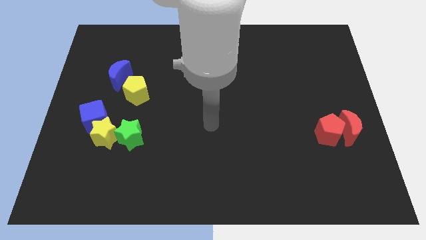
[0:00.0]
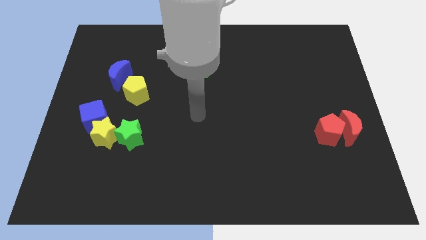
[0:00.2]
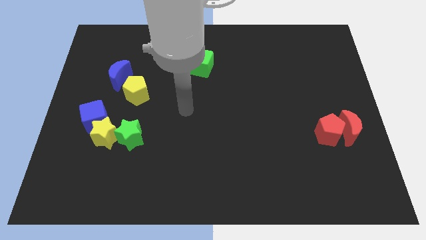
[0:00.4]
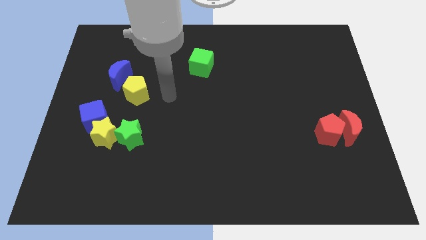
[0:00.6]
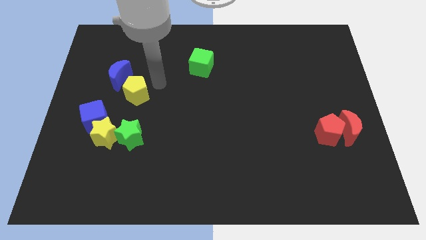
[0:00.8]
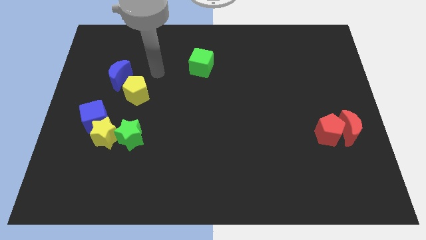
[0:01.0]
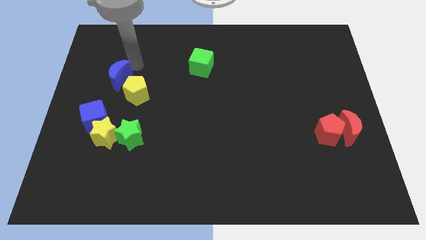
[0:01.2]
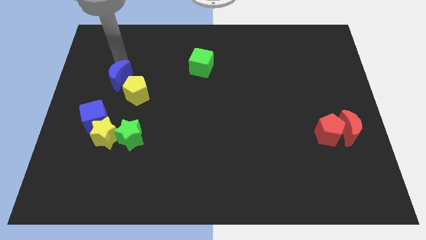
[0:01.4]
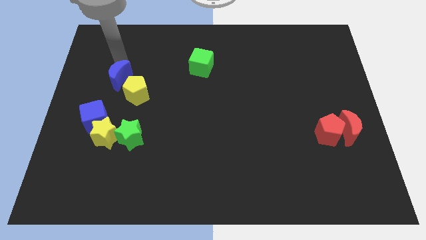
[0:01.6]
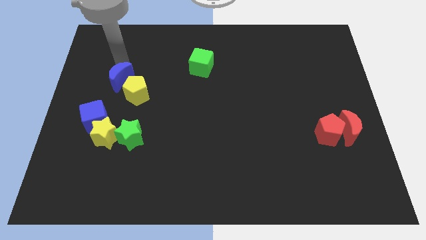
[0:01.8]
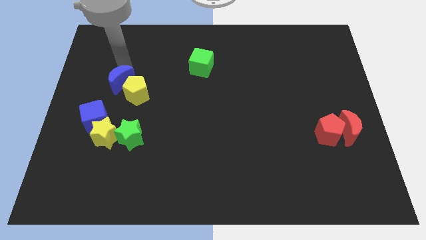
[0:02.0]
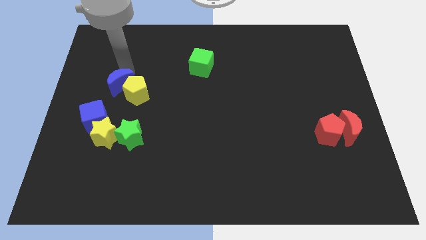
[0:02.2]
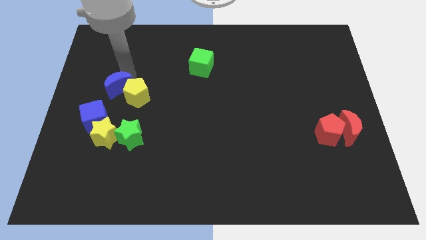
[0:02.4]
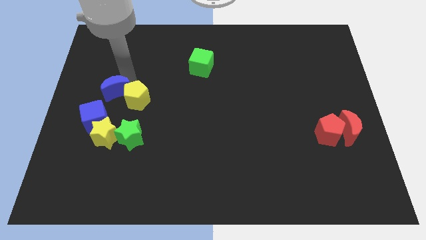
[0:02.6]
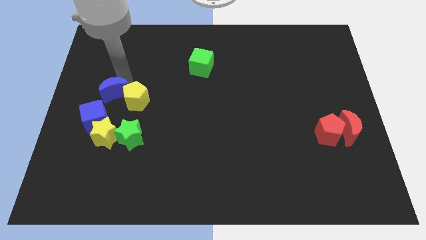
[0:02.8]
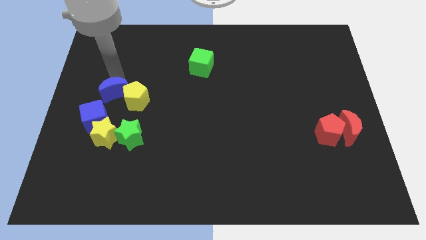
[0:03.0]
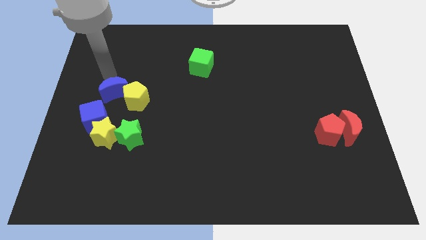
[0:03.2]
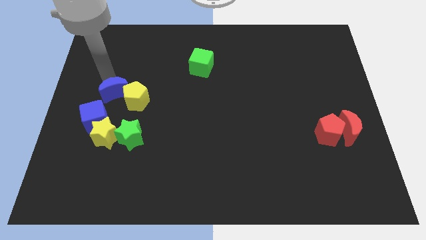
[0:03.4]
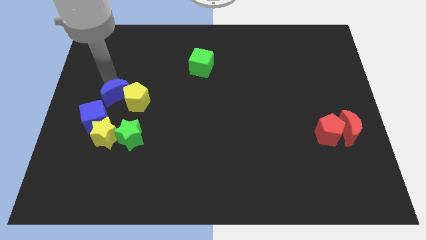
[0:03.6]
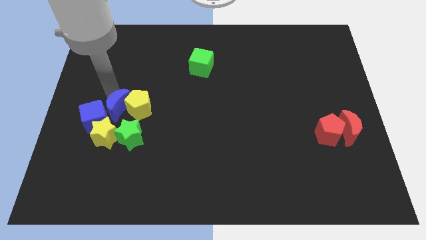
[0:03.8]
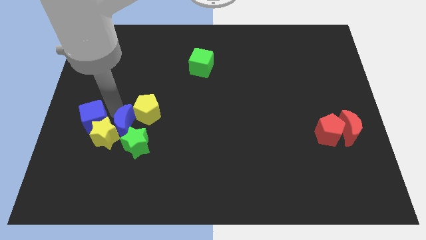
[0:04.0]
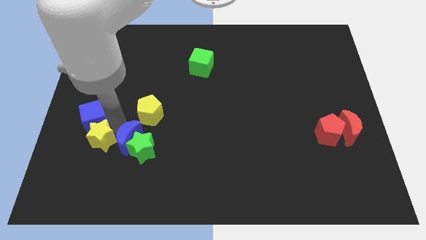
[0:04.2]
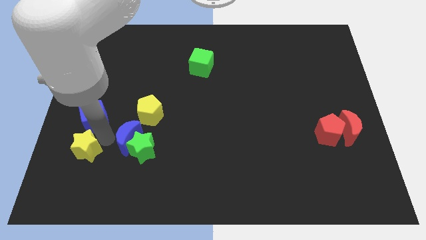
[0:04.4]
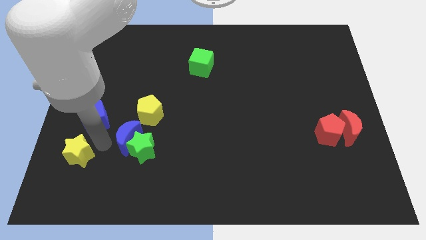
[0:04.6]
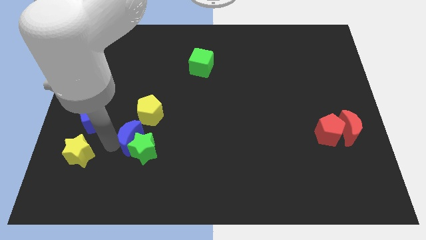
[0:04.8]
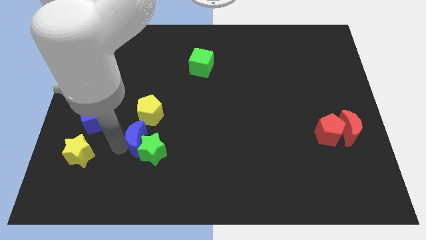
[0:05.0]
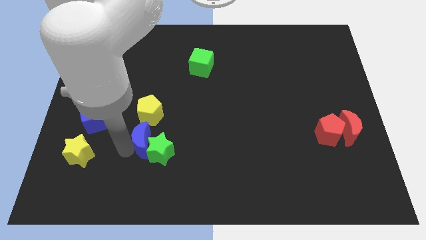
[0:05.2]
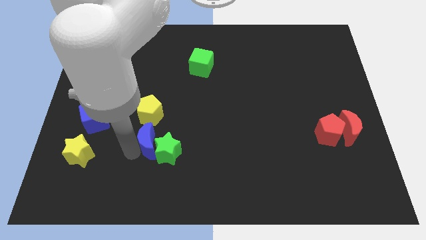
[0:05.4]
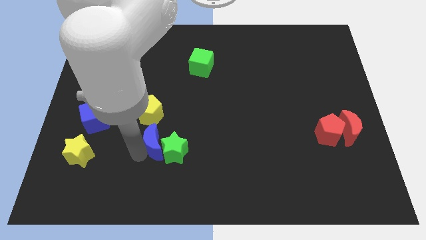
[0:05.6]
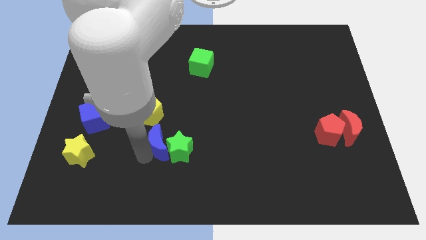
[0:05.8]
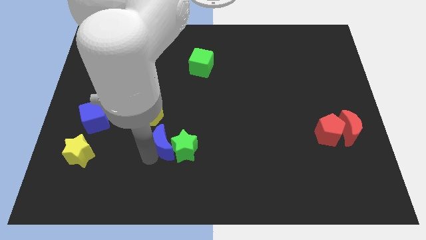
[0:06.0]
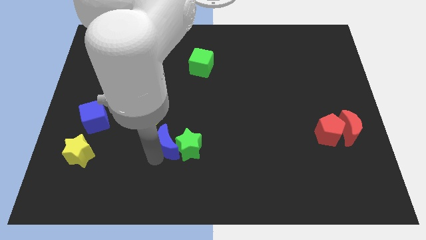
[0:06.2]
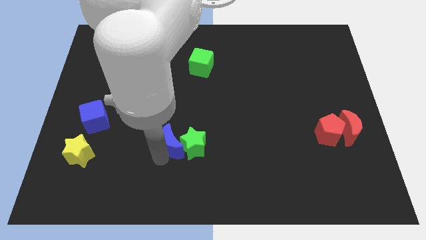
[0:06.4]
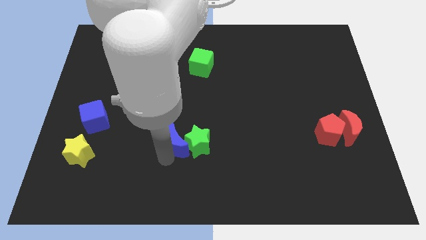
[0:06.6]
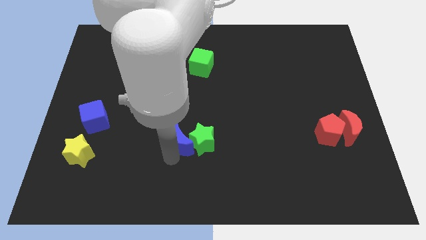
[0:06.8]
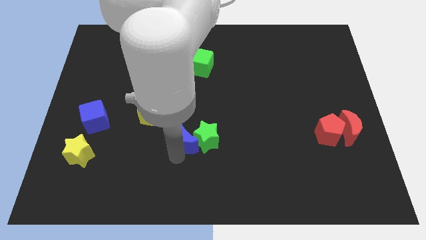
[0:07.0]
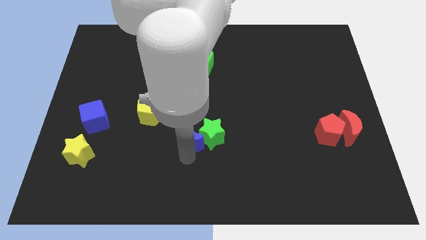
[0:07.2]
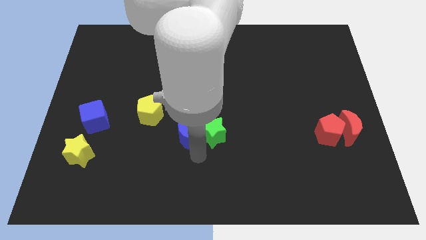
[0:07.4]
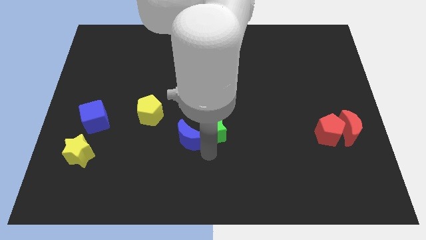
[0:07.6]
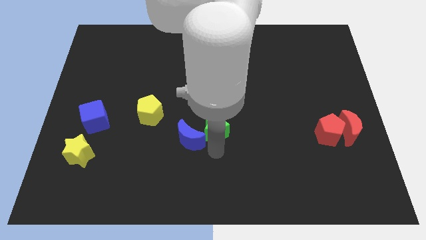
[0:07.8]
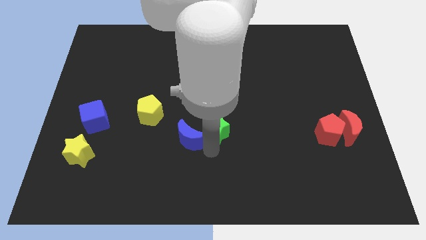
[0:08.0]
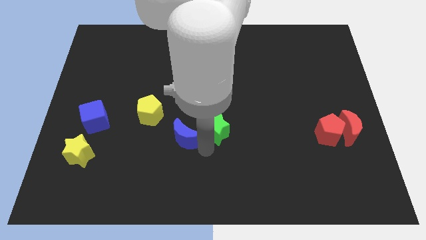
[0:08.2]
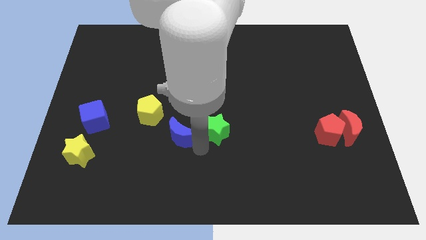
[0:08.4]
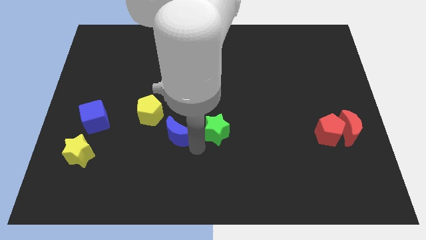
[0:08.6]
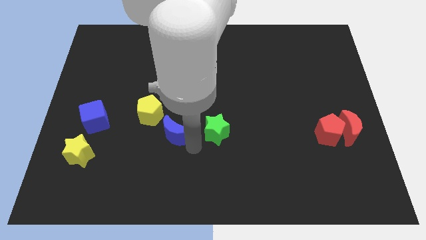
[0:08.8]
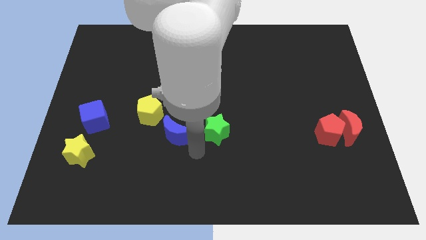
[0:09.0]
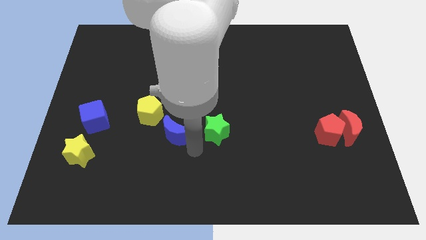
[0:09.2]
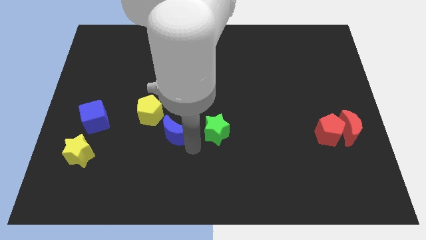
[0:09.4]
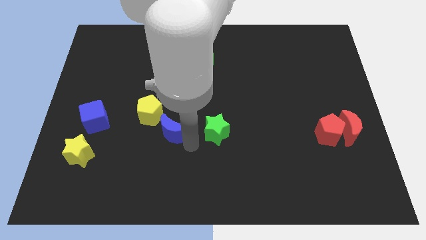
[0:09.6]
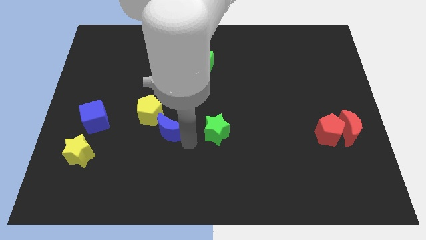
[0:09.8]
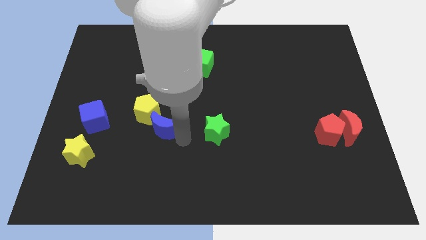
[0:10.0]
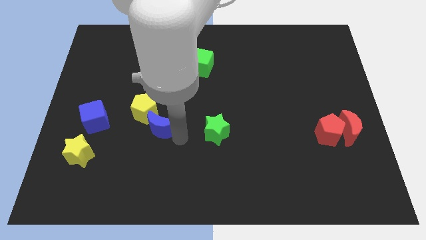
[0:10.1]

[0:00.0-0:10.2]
move the blue moon to the bottom right side of the yellow pentagon

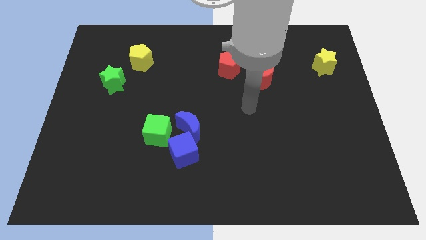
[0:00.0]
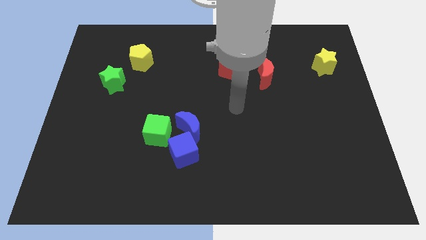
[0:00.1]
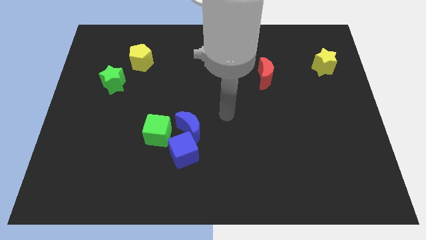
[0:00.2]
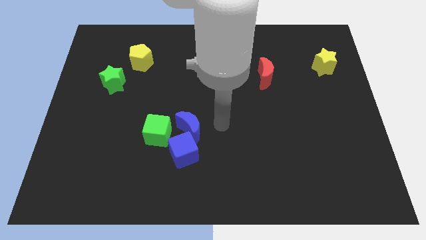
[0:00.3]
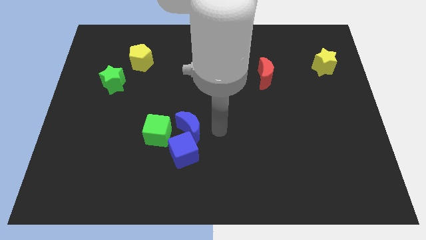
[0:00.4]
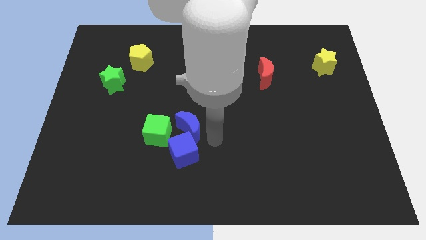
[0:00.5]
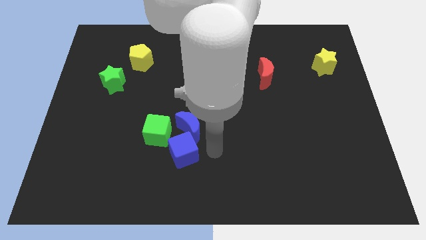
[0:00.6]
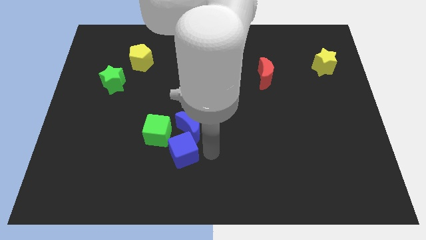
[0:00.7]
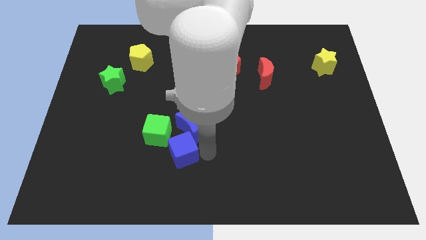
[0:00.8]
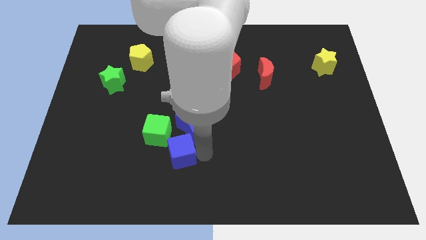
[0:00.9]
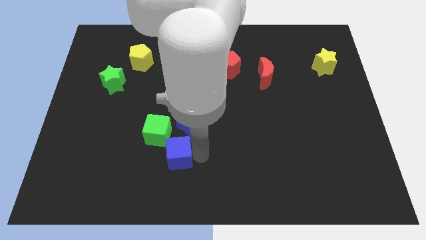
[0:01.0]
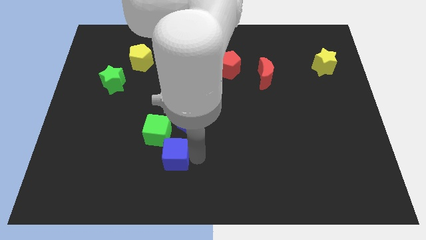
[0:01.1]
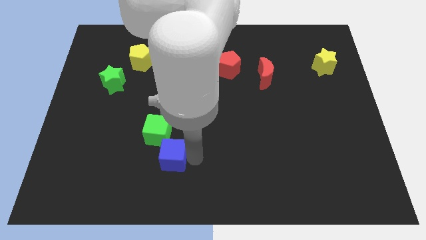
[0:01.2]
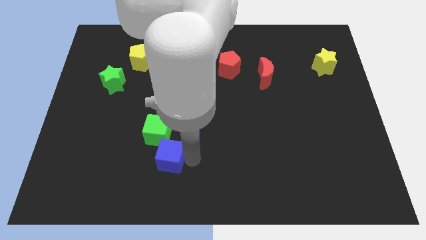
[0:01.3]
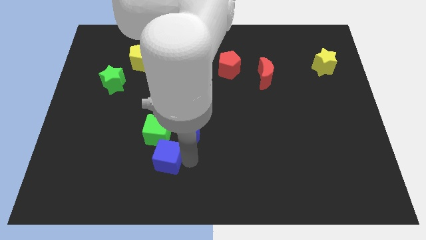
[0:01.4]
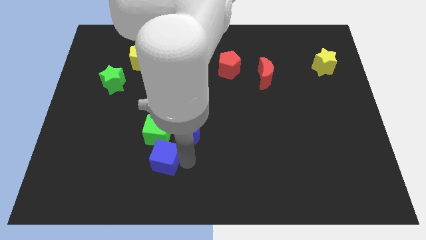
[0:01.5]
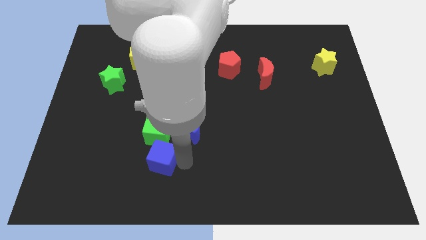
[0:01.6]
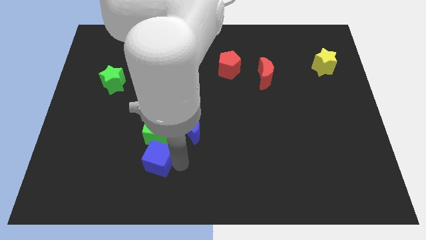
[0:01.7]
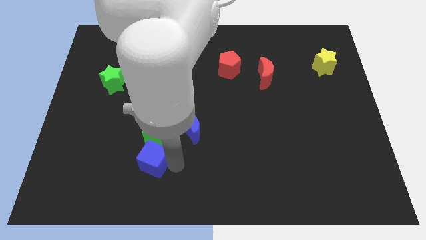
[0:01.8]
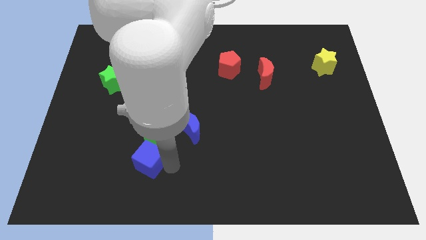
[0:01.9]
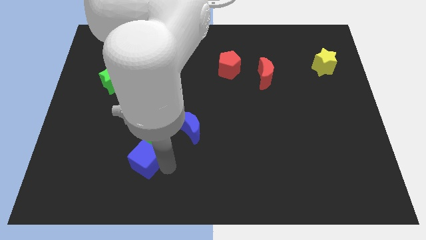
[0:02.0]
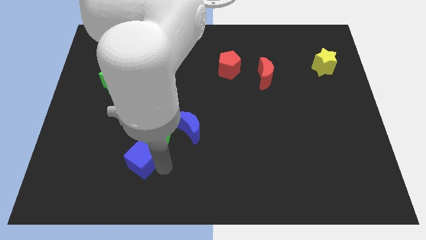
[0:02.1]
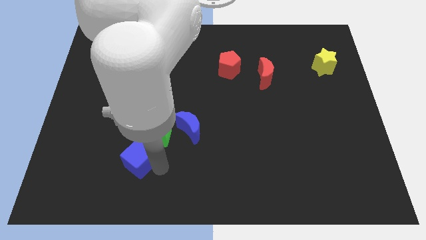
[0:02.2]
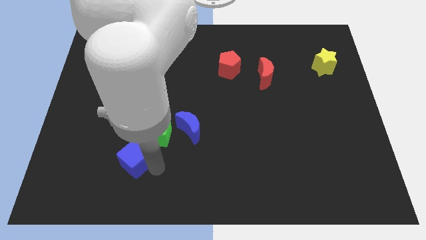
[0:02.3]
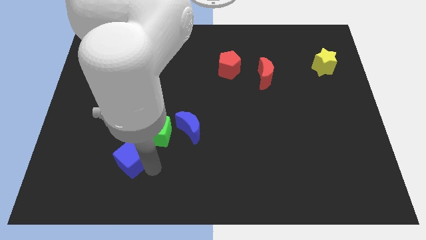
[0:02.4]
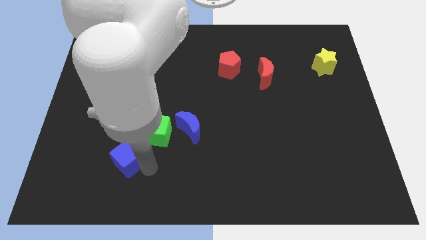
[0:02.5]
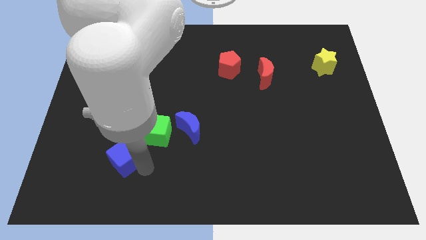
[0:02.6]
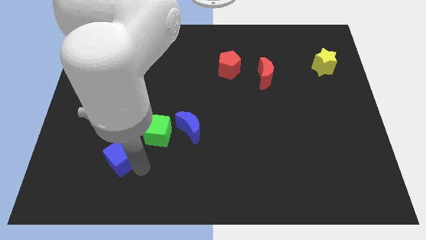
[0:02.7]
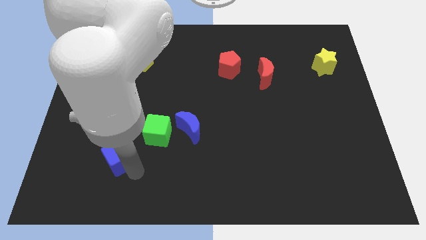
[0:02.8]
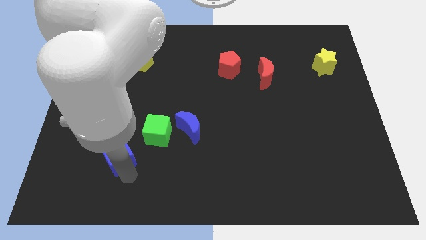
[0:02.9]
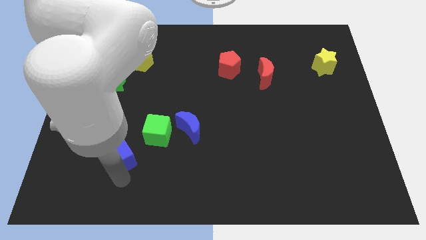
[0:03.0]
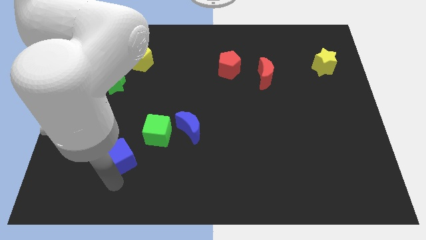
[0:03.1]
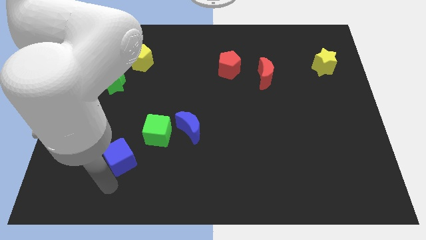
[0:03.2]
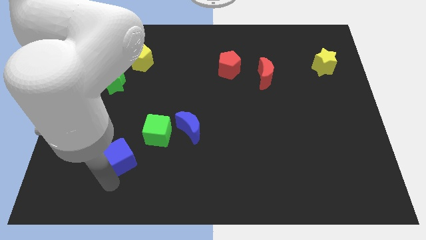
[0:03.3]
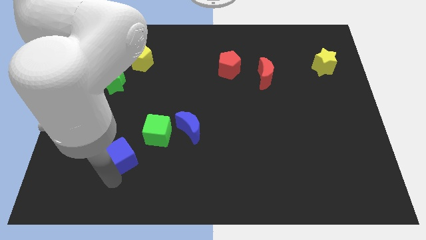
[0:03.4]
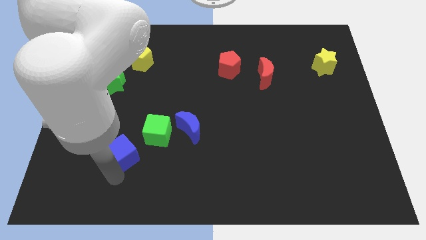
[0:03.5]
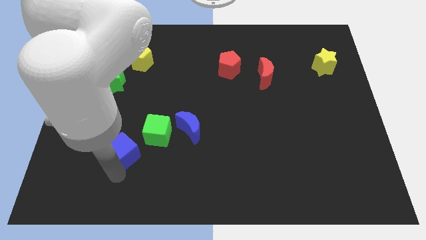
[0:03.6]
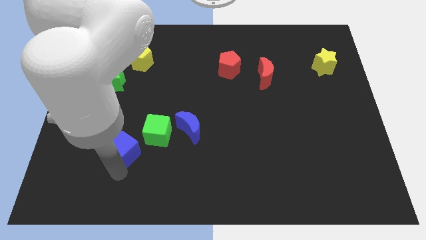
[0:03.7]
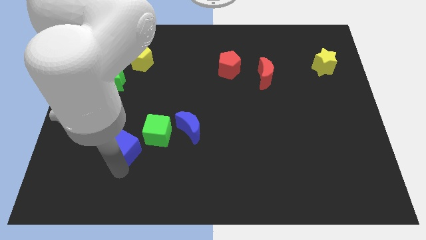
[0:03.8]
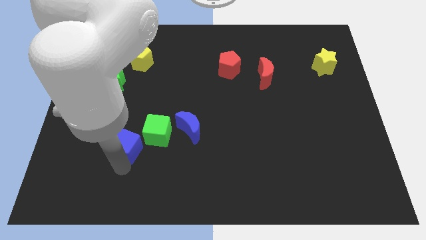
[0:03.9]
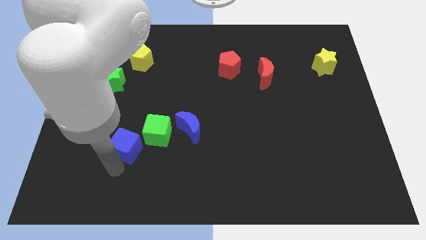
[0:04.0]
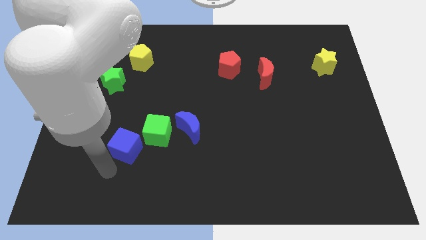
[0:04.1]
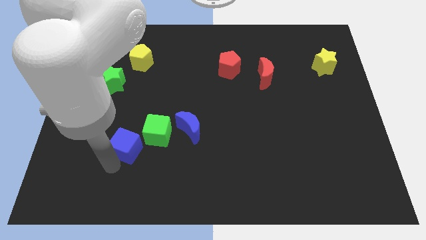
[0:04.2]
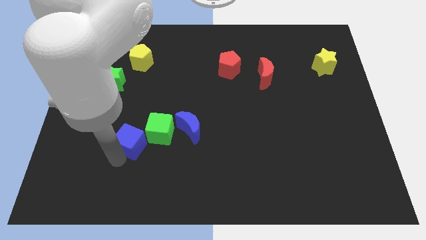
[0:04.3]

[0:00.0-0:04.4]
push the blue cube just left of the blue moon
